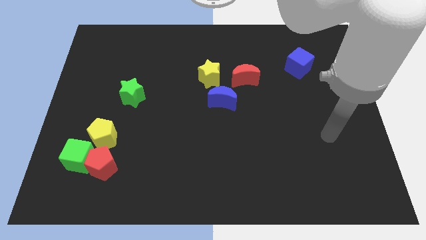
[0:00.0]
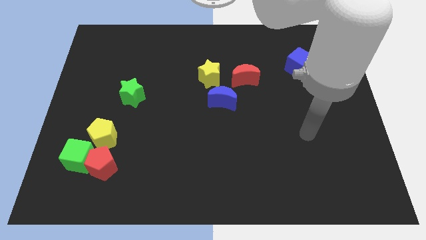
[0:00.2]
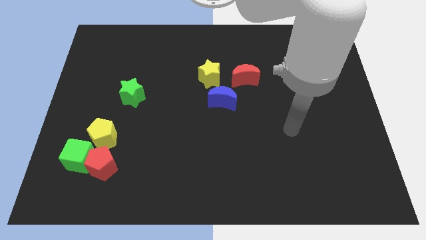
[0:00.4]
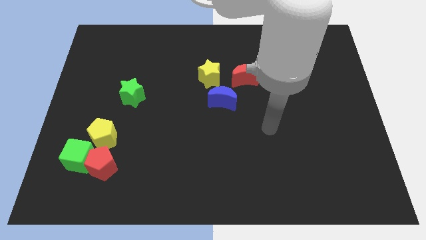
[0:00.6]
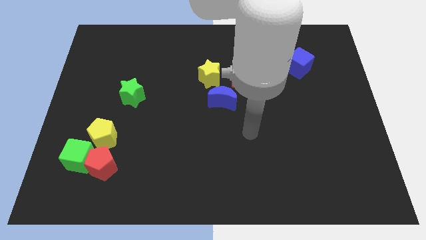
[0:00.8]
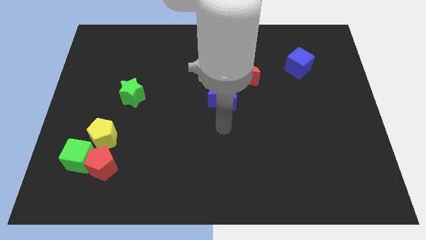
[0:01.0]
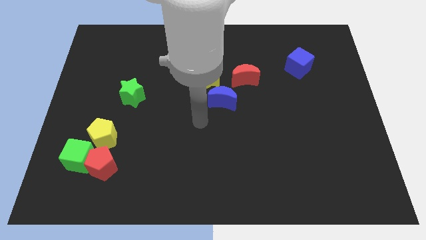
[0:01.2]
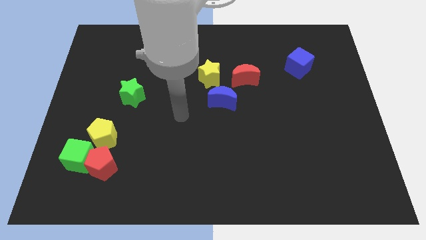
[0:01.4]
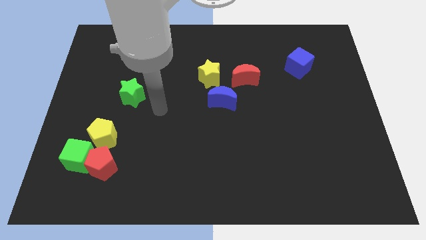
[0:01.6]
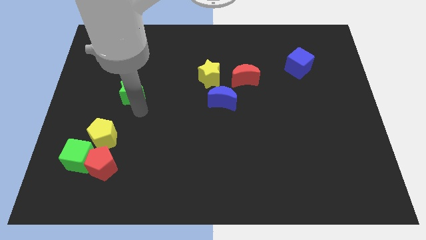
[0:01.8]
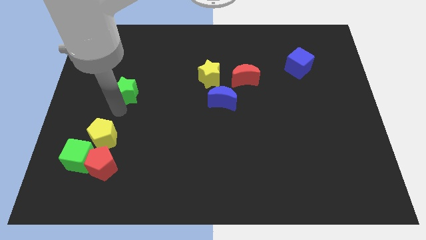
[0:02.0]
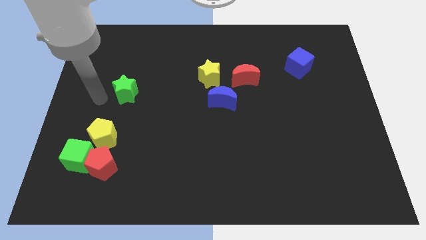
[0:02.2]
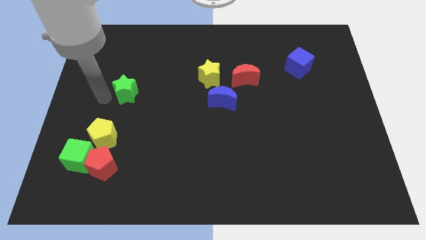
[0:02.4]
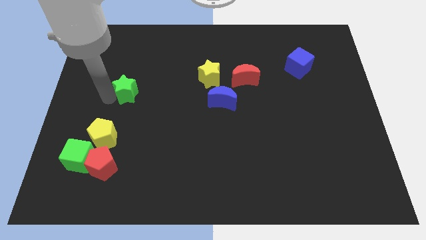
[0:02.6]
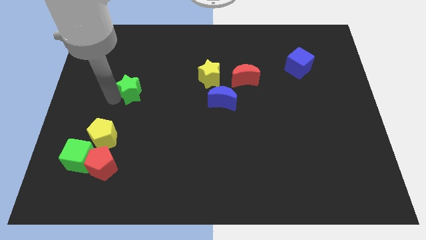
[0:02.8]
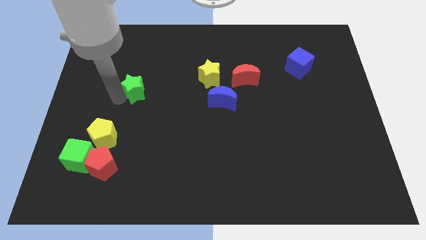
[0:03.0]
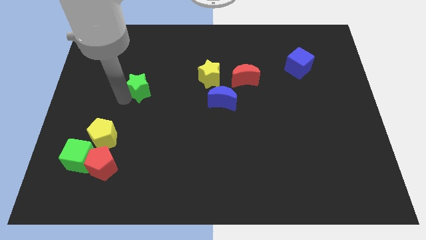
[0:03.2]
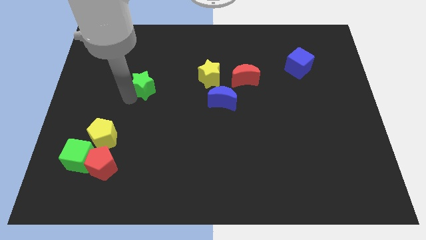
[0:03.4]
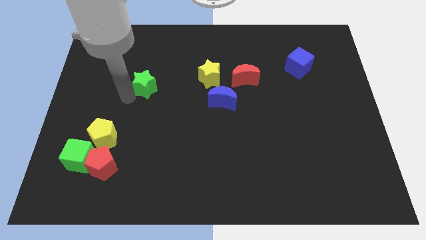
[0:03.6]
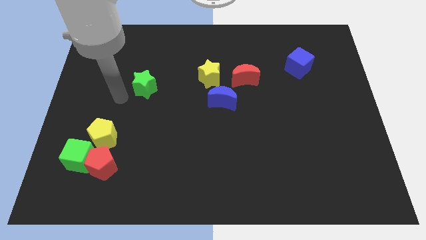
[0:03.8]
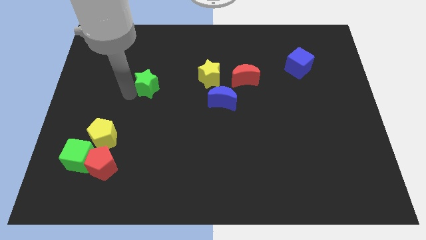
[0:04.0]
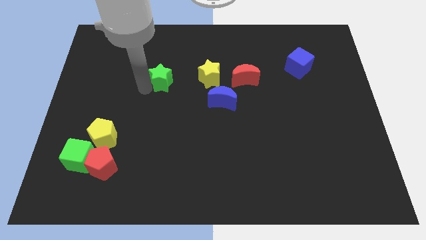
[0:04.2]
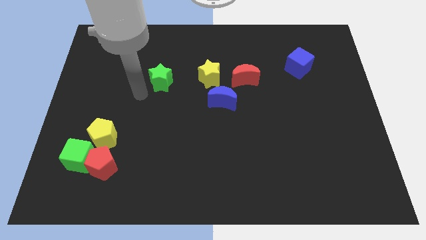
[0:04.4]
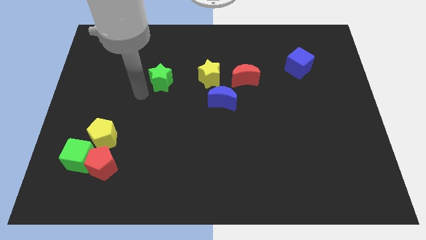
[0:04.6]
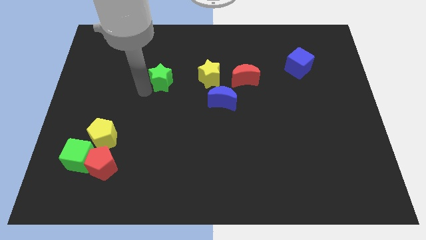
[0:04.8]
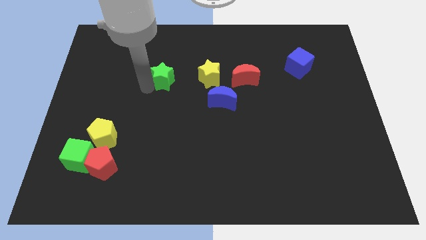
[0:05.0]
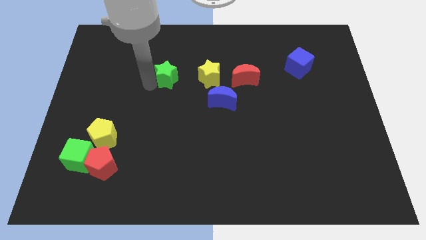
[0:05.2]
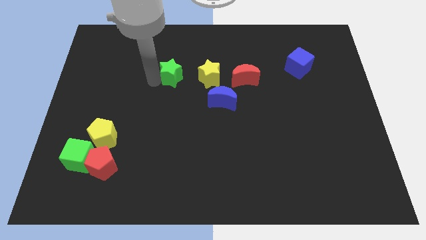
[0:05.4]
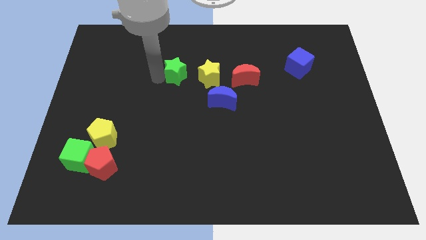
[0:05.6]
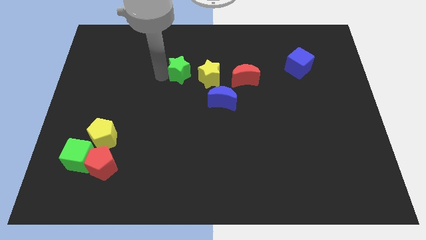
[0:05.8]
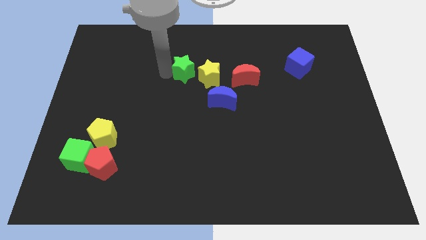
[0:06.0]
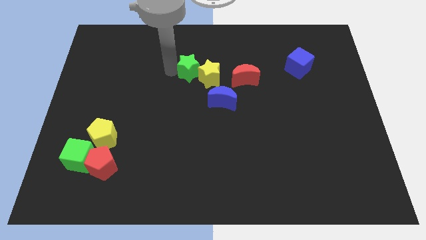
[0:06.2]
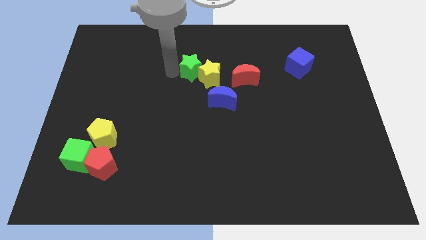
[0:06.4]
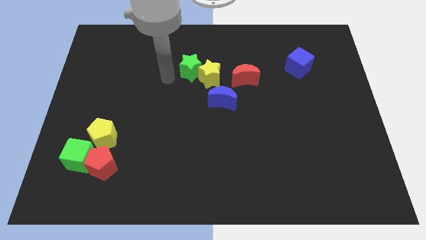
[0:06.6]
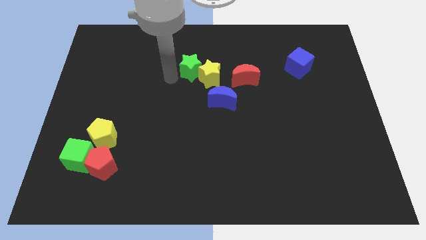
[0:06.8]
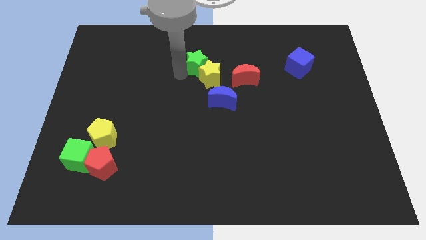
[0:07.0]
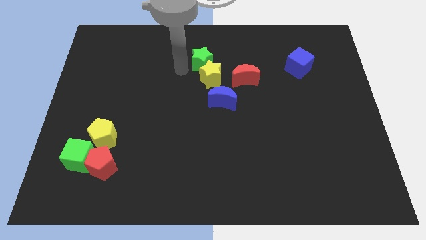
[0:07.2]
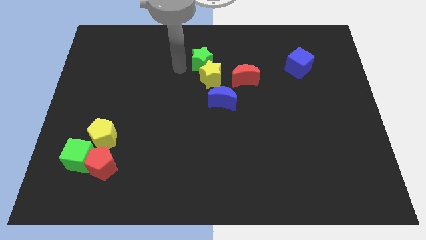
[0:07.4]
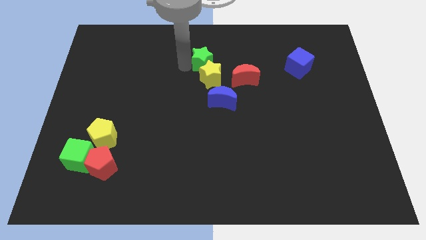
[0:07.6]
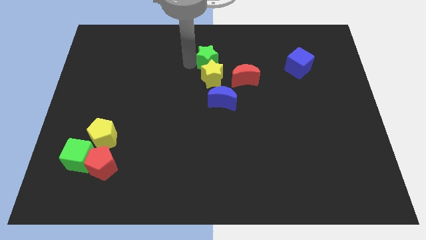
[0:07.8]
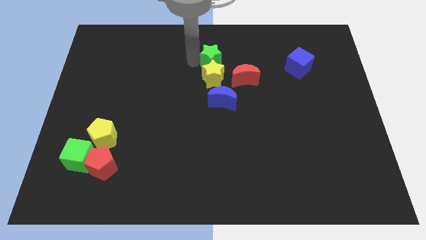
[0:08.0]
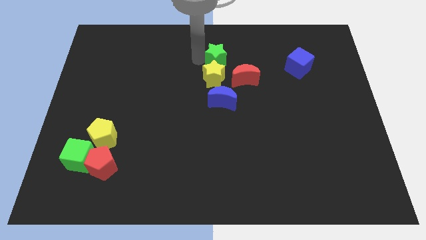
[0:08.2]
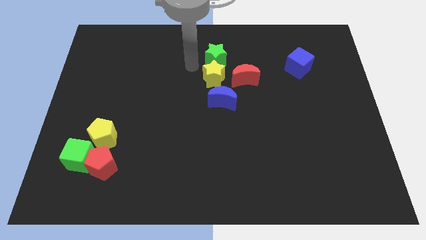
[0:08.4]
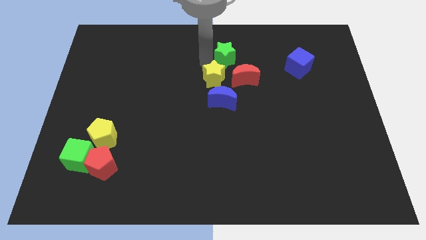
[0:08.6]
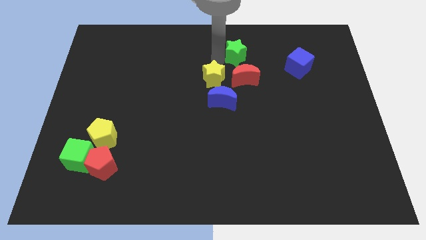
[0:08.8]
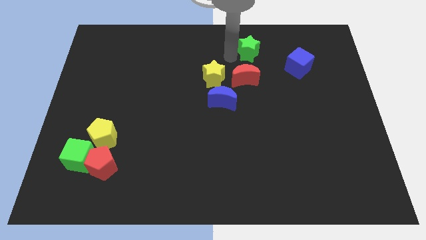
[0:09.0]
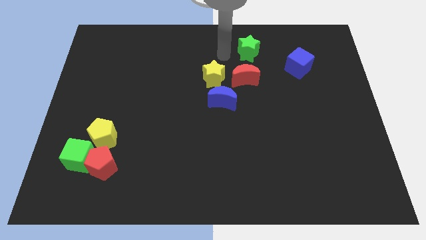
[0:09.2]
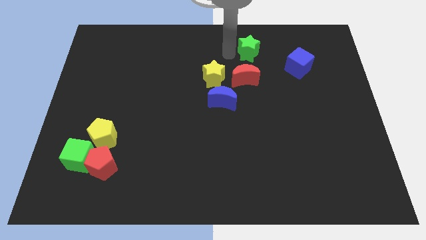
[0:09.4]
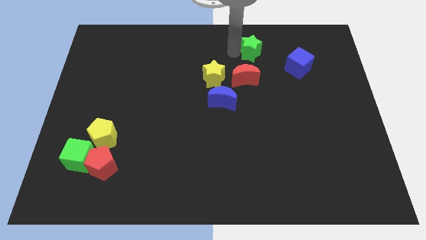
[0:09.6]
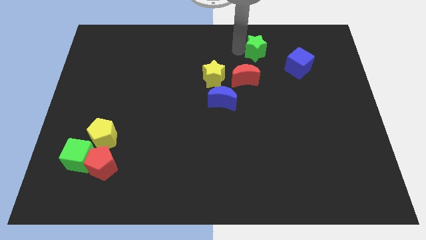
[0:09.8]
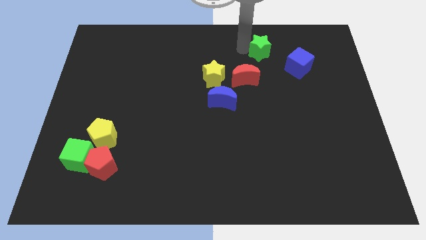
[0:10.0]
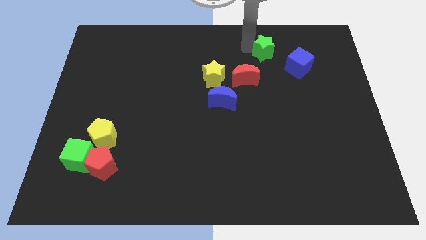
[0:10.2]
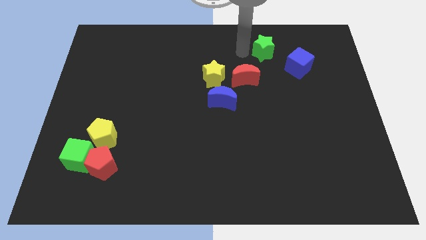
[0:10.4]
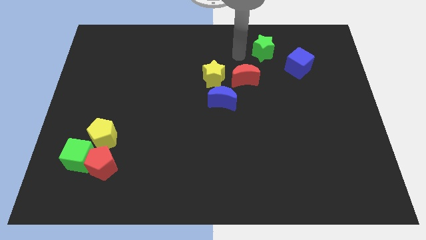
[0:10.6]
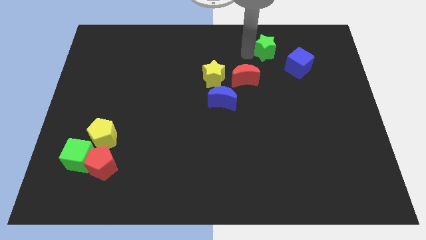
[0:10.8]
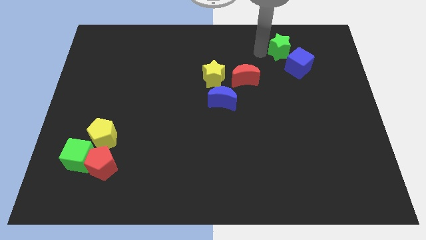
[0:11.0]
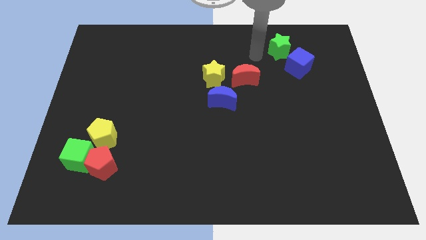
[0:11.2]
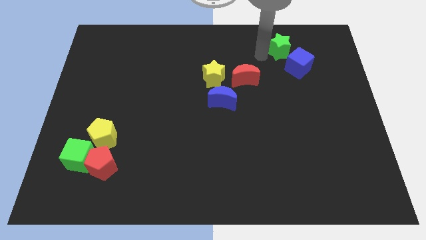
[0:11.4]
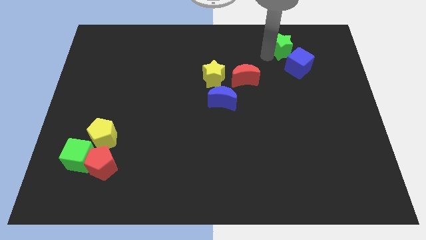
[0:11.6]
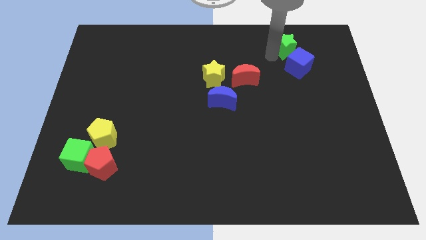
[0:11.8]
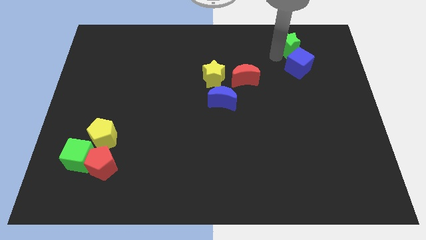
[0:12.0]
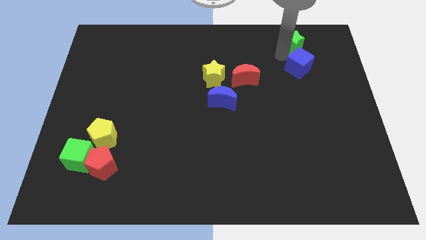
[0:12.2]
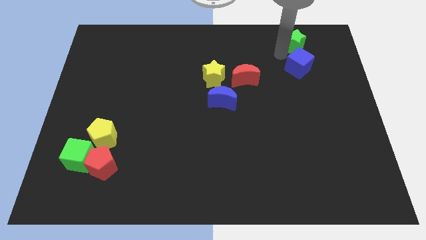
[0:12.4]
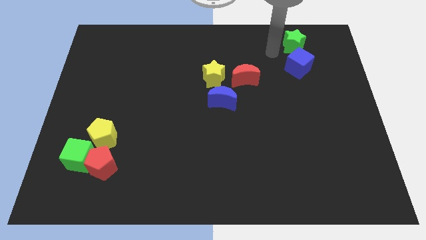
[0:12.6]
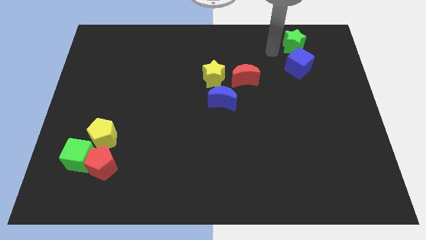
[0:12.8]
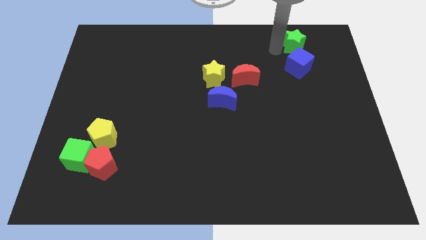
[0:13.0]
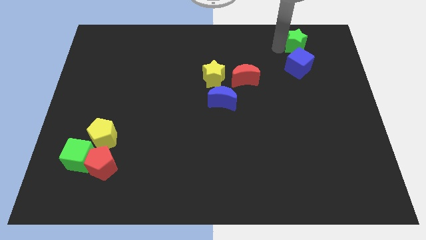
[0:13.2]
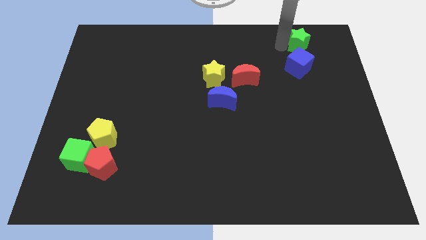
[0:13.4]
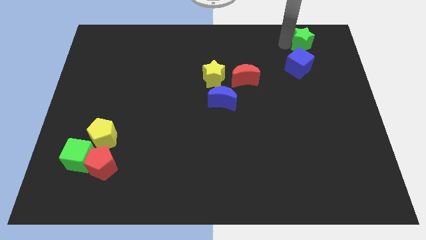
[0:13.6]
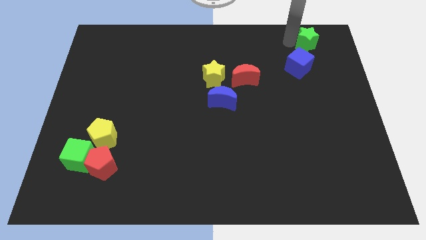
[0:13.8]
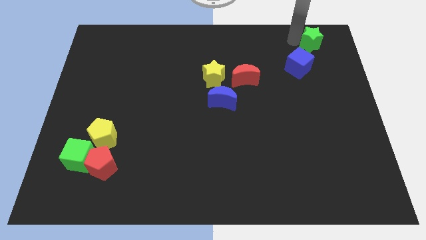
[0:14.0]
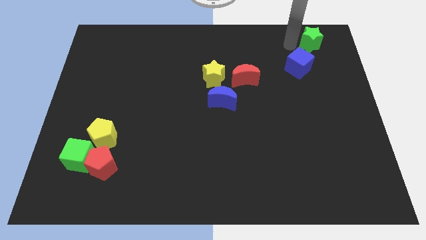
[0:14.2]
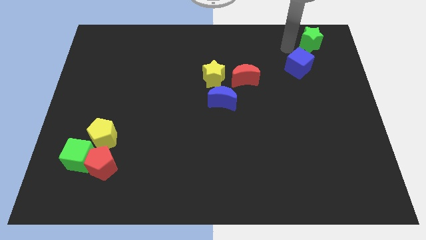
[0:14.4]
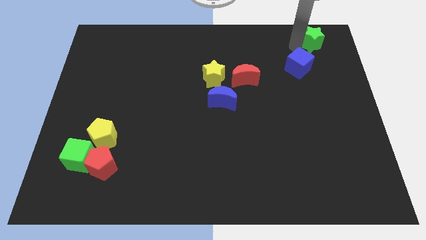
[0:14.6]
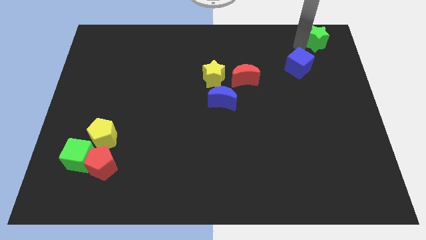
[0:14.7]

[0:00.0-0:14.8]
slide the green star to the top right of the board
